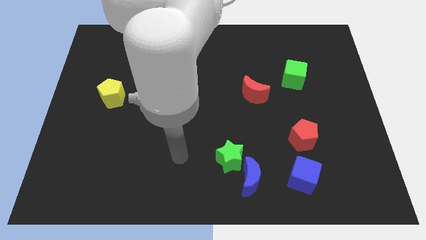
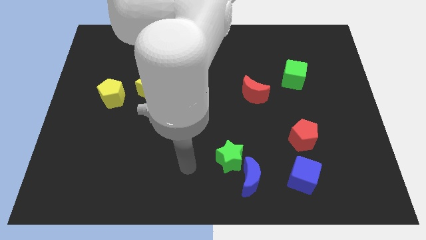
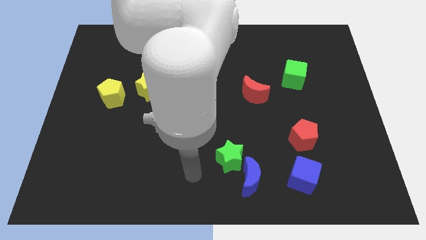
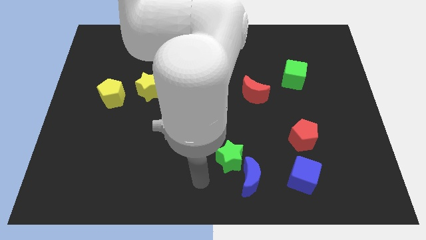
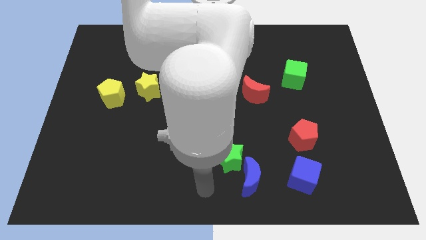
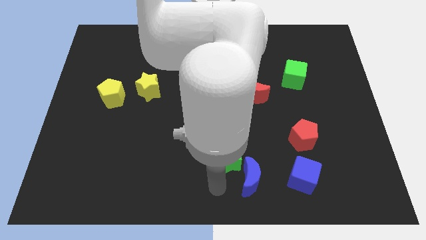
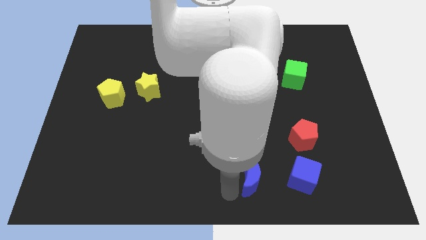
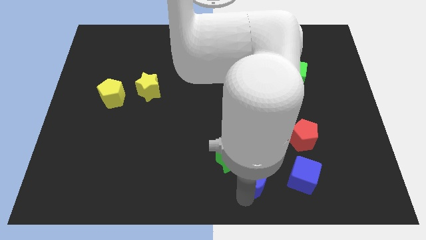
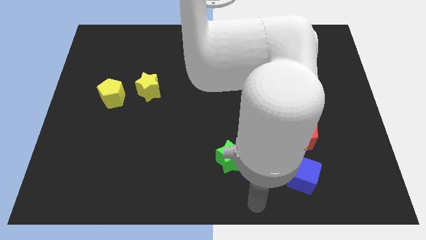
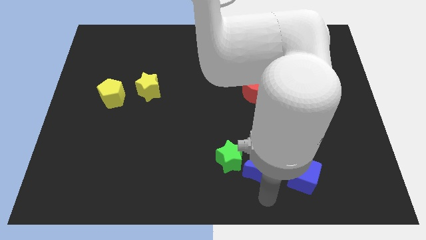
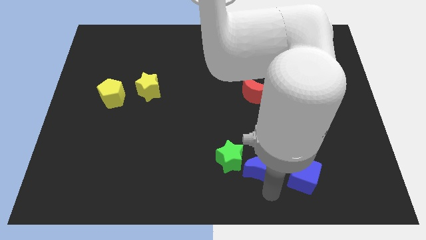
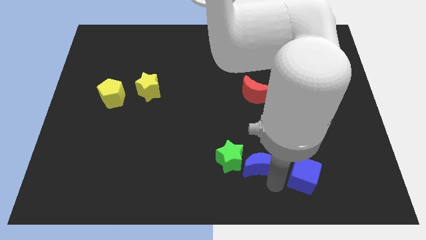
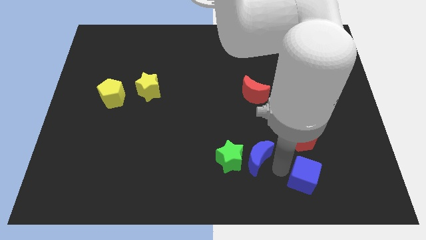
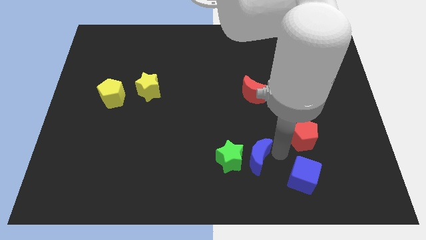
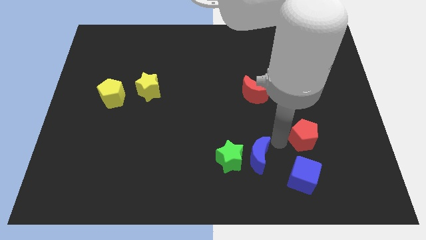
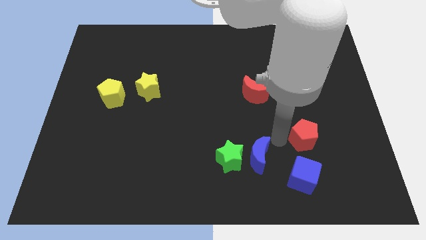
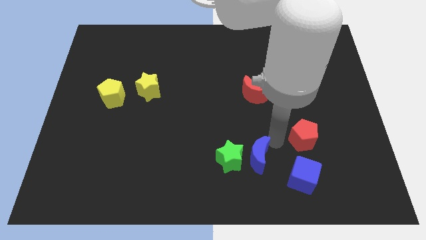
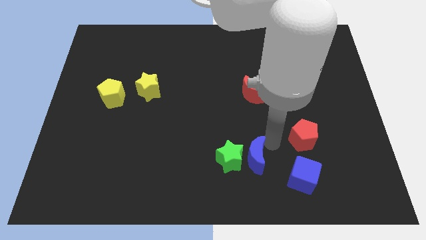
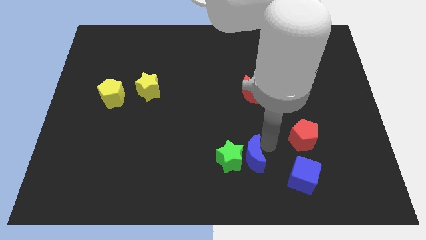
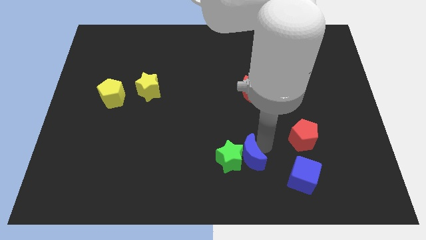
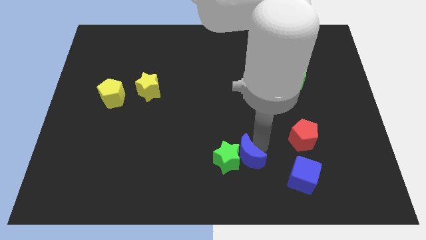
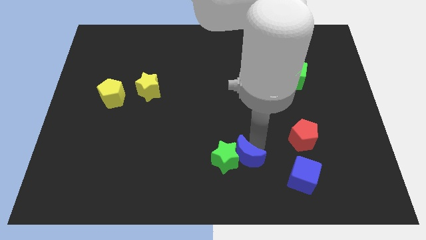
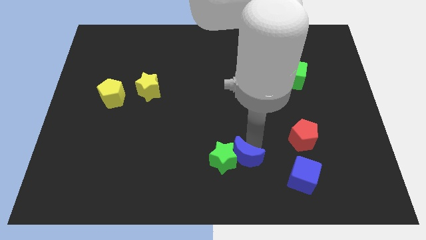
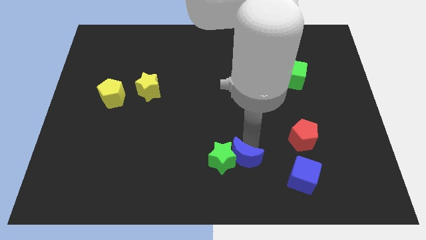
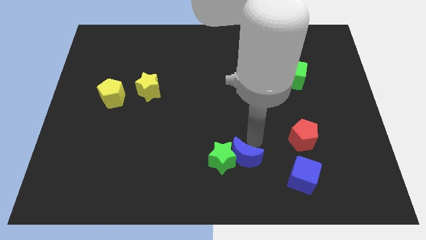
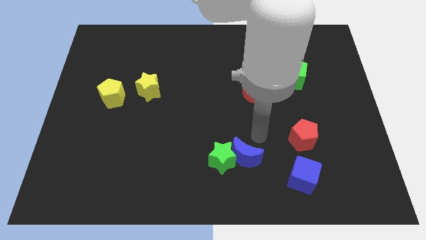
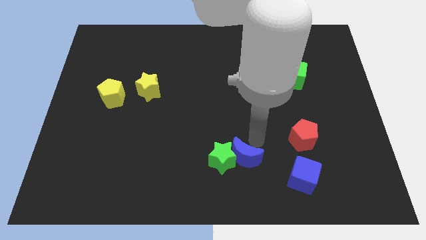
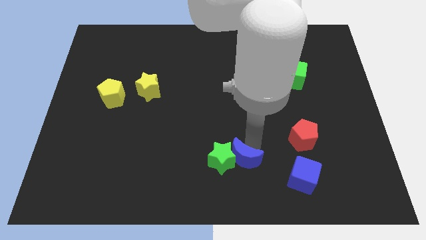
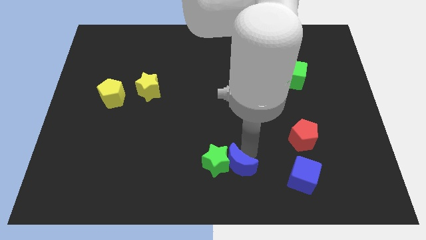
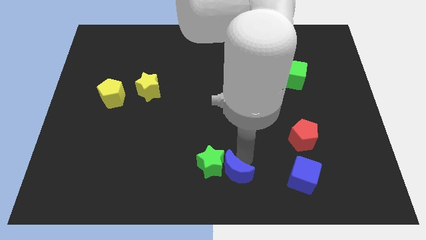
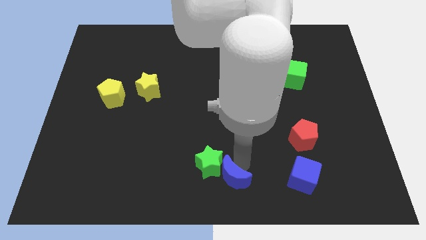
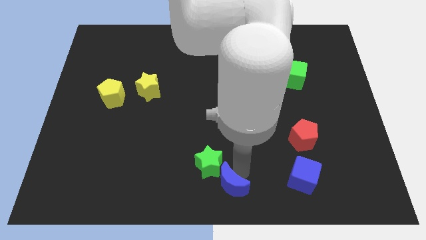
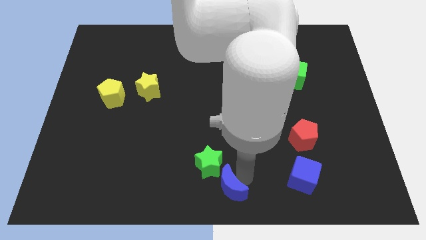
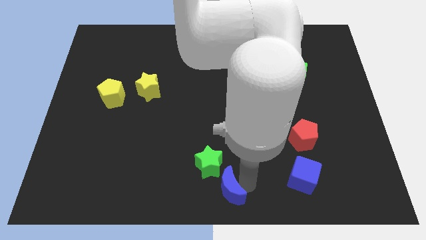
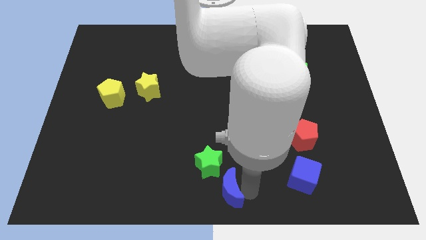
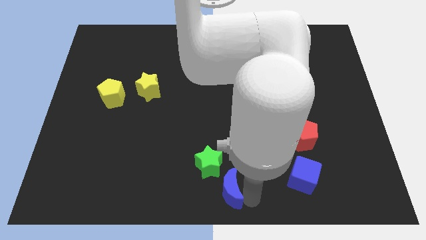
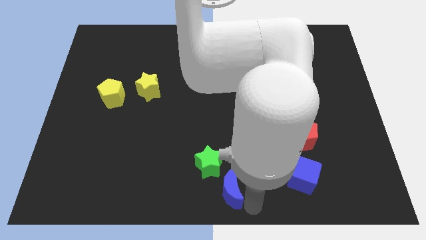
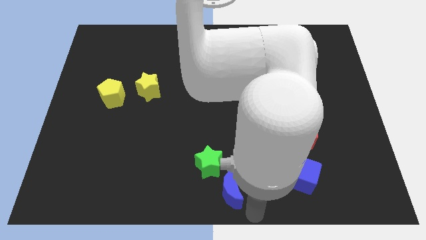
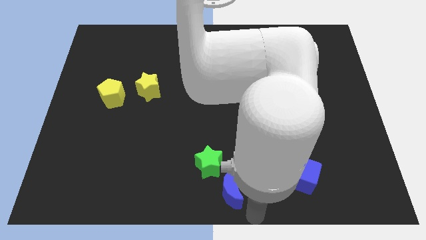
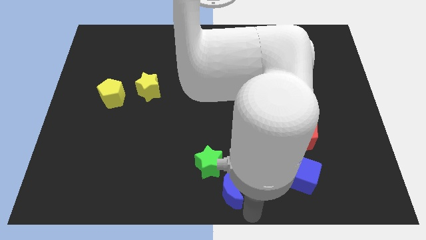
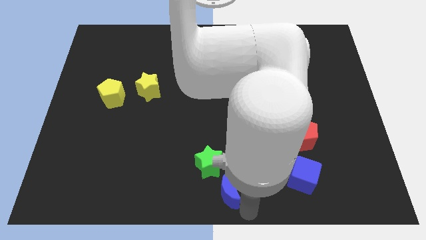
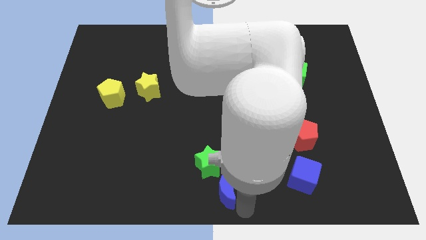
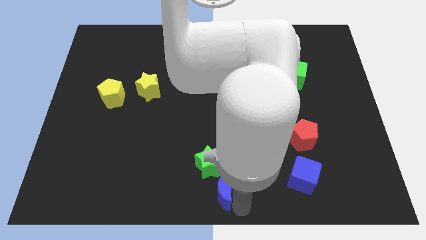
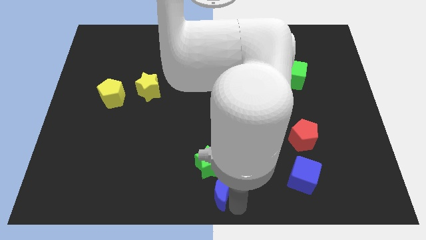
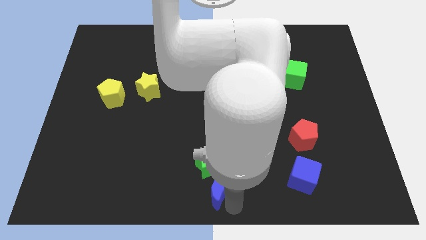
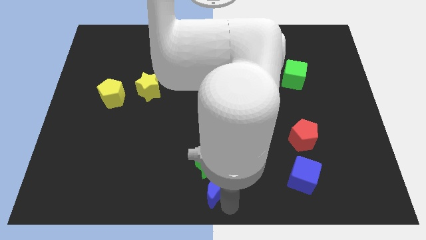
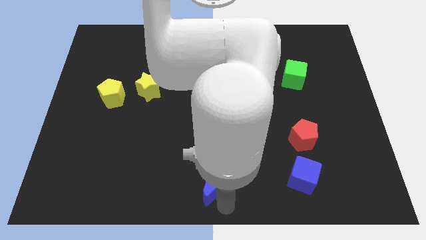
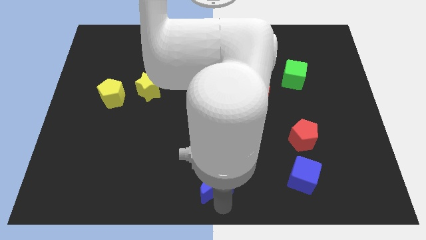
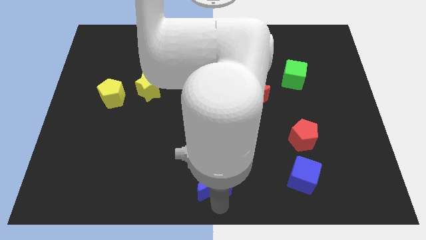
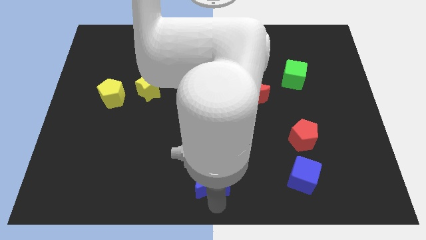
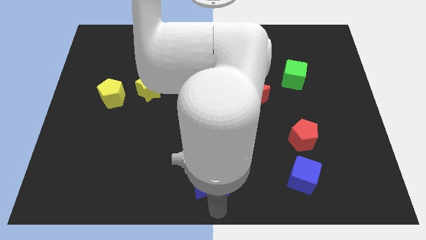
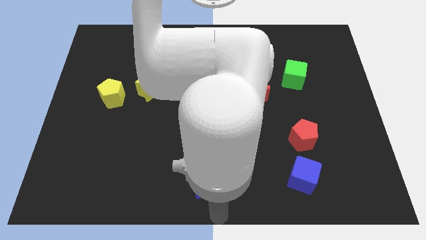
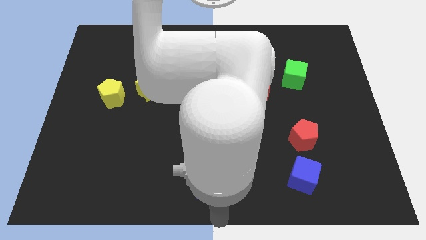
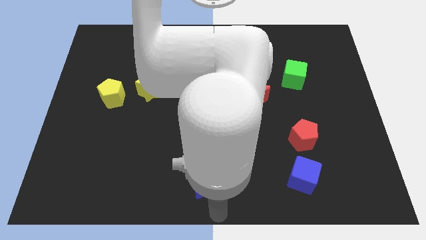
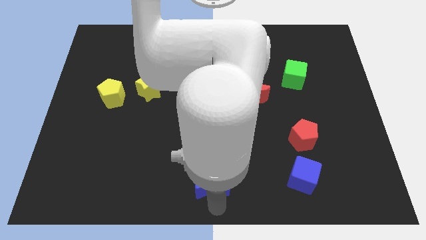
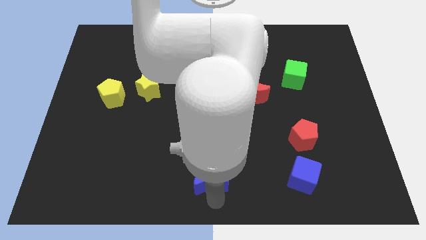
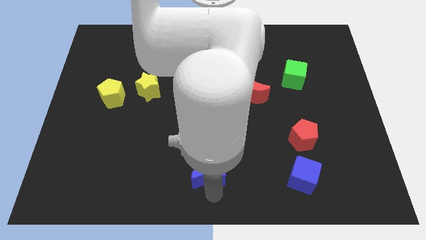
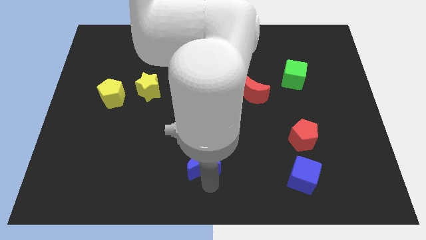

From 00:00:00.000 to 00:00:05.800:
slightly move the blue moon up and to the left

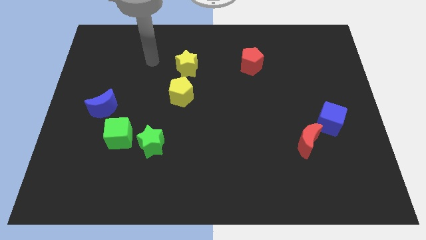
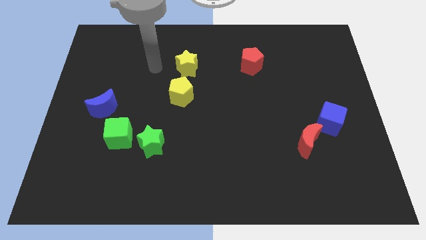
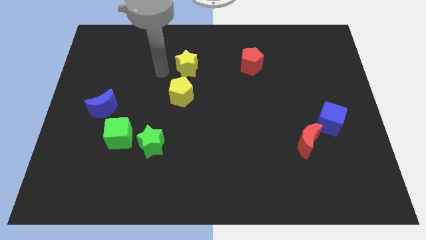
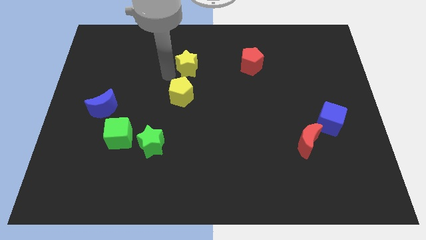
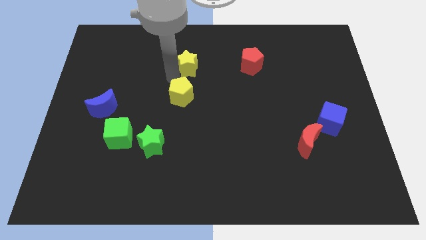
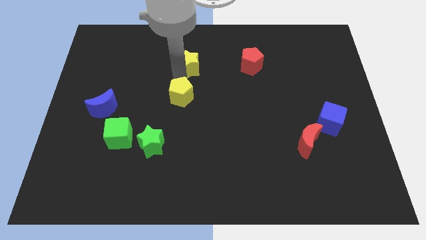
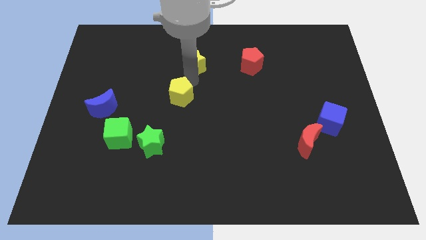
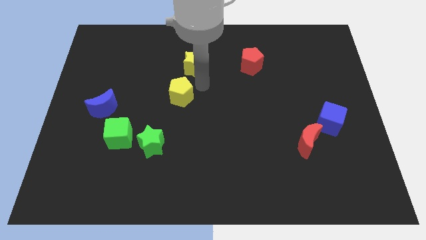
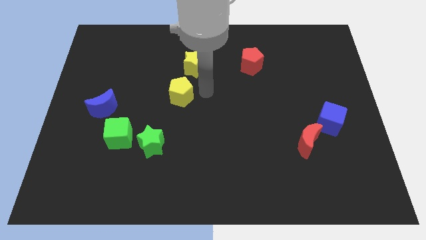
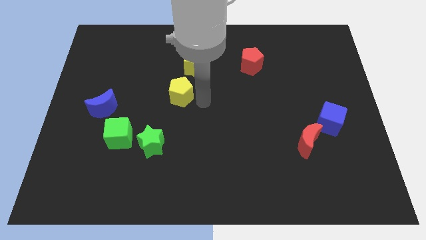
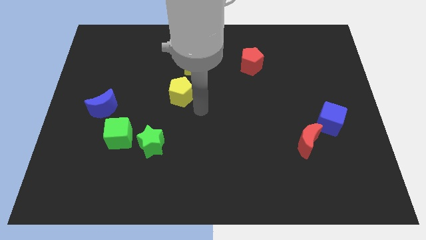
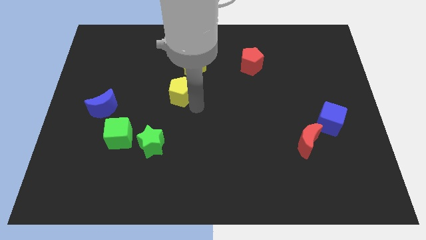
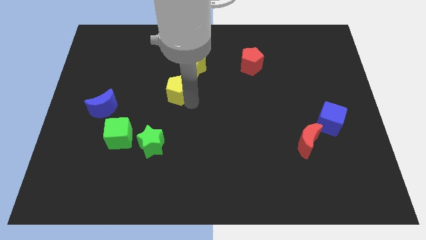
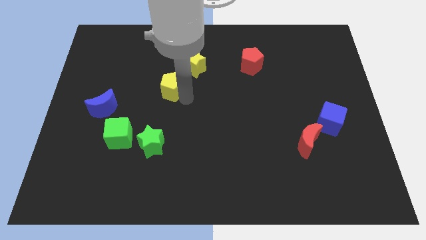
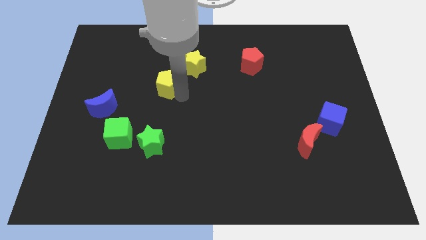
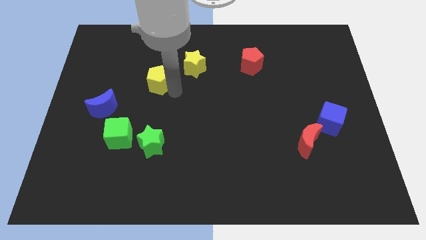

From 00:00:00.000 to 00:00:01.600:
slightly move the yellow pentagon up and to the left diagonally

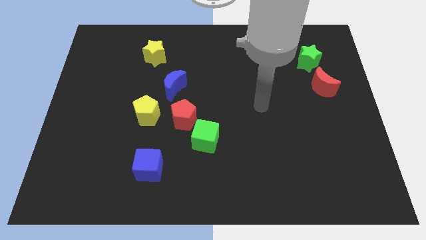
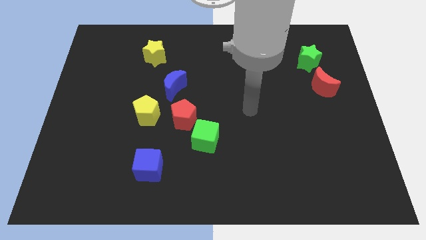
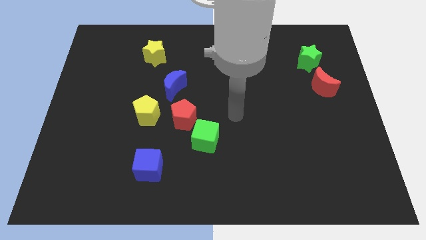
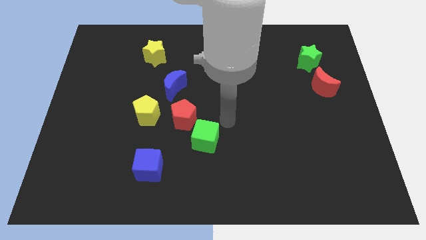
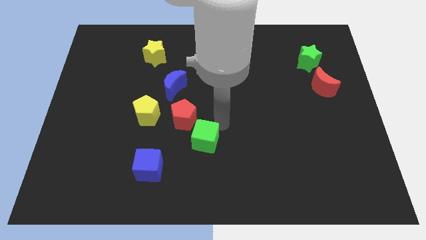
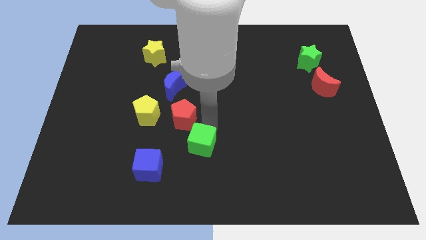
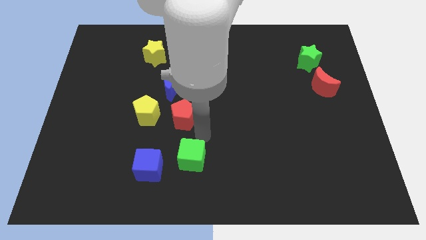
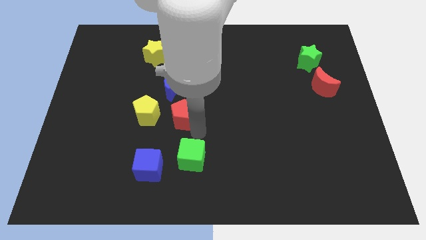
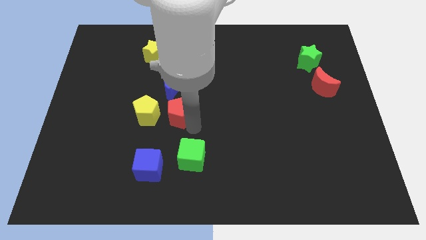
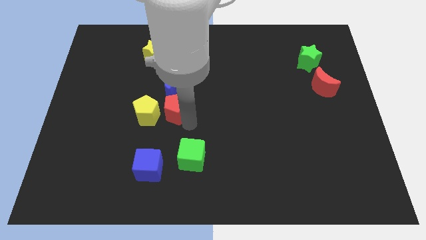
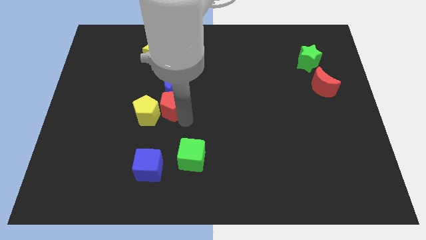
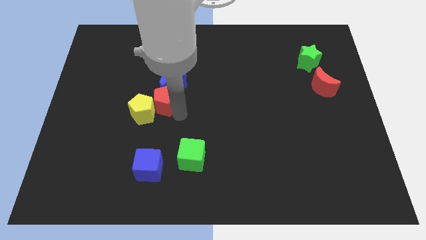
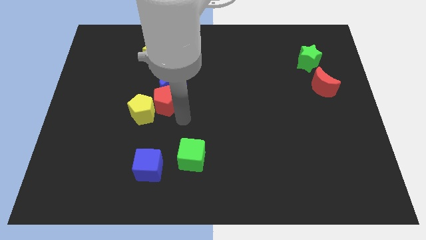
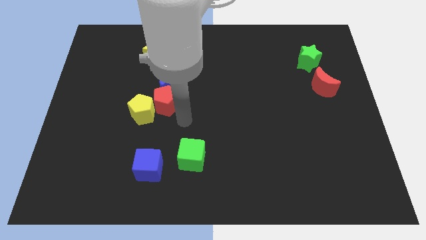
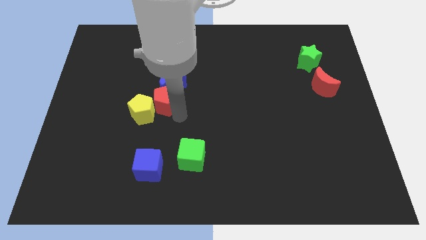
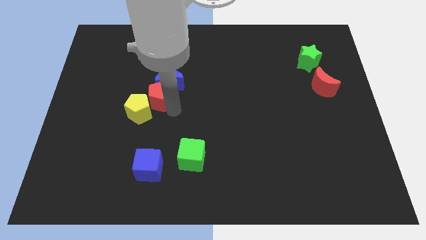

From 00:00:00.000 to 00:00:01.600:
slide the red pentagon up and left diagonally slightly
